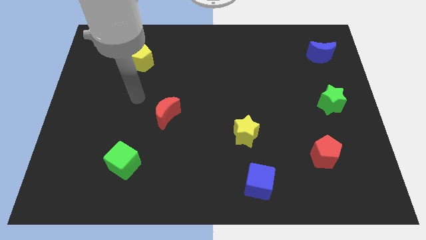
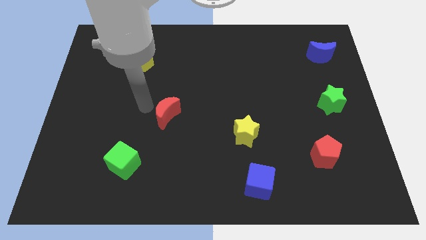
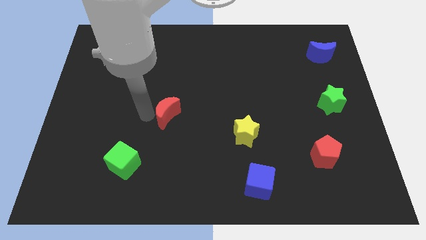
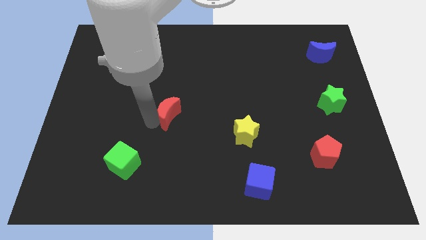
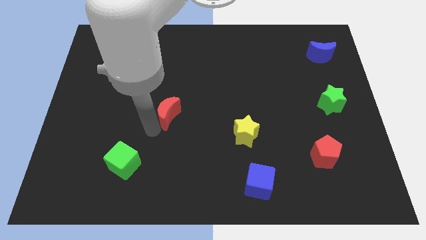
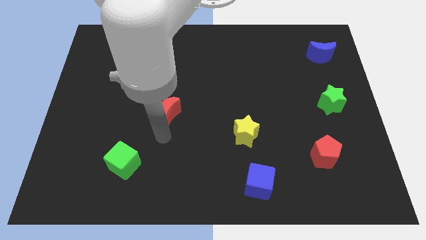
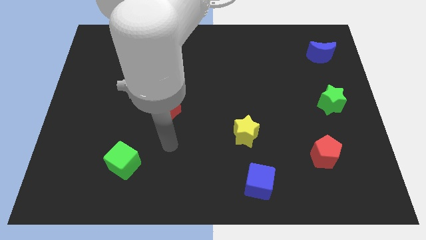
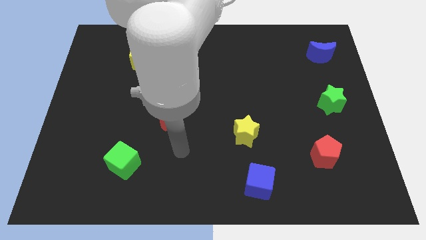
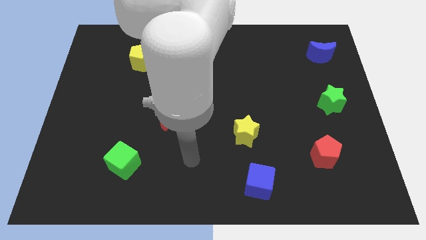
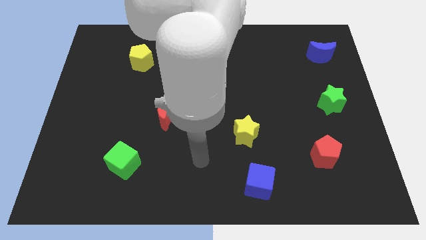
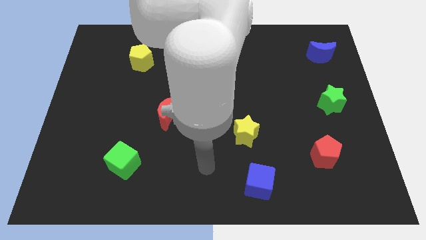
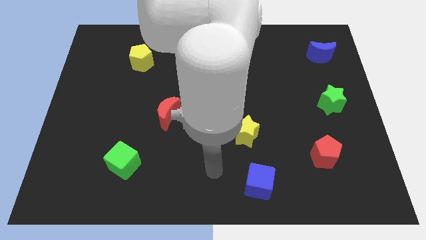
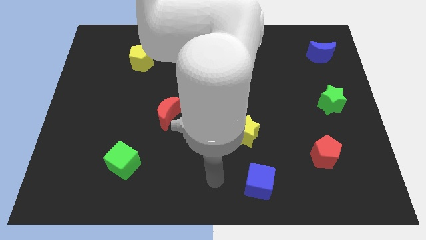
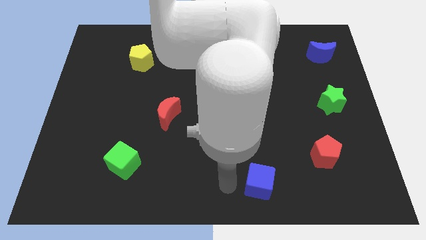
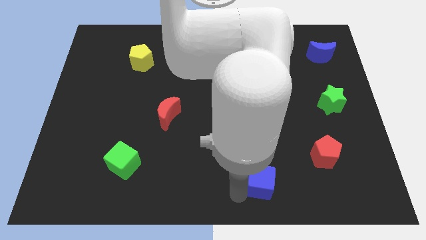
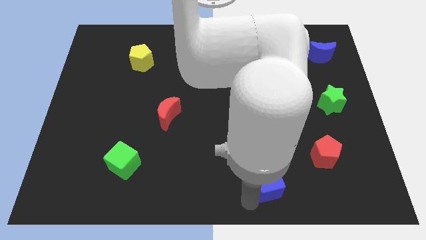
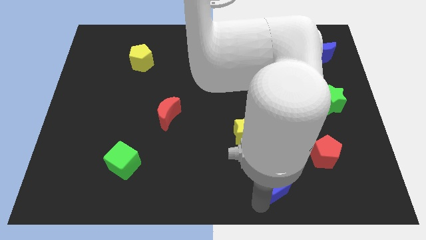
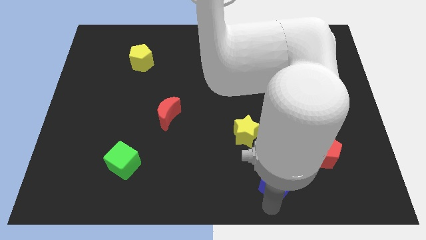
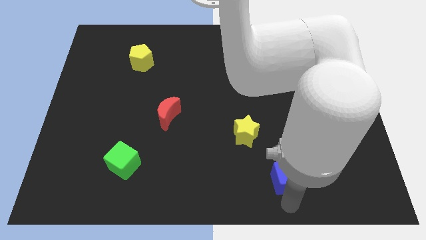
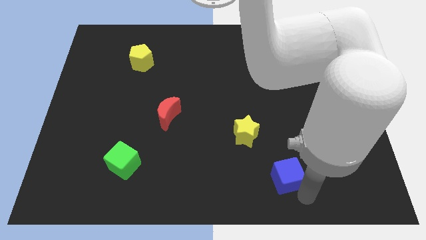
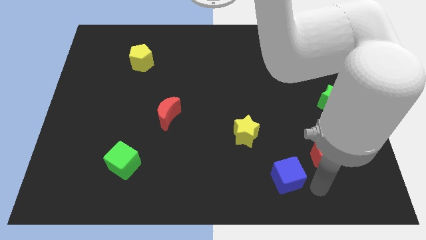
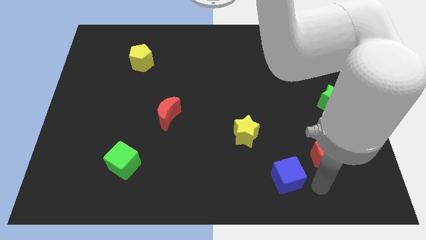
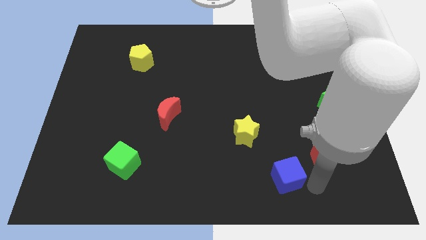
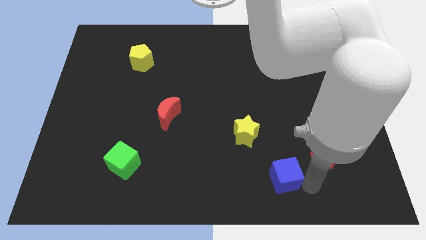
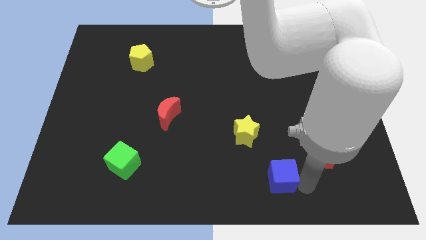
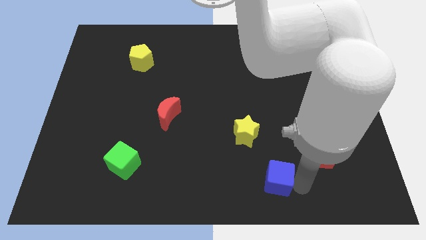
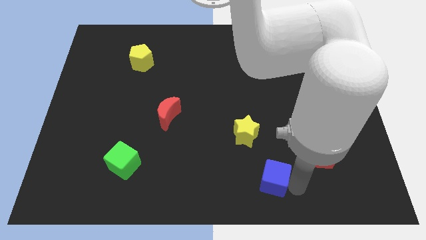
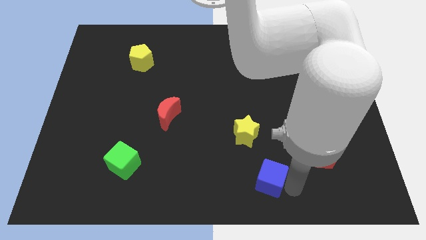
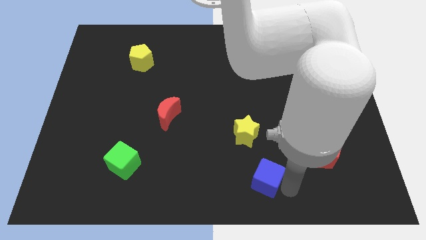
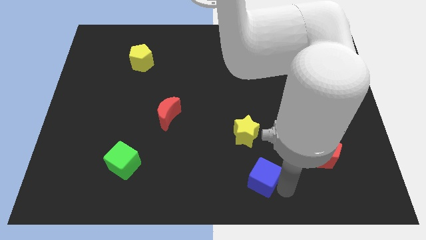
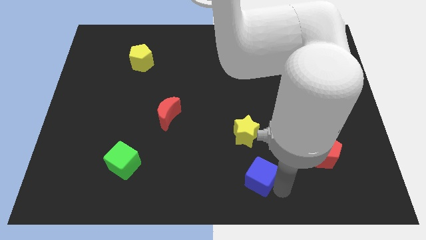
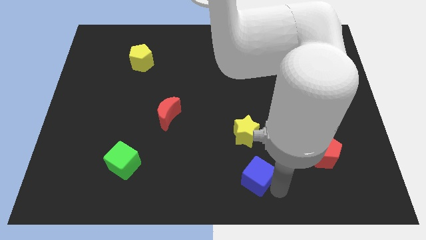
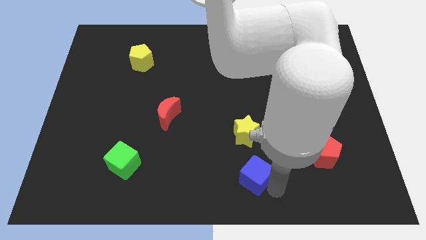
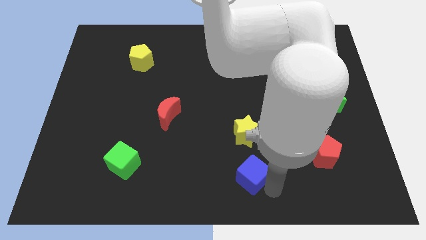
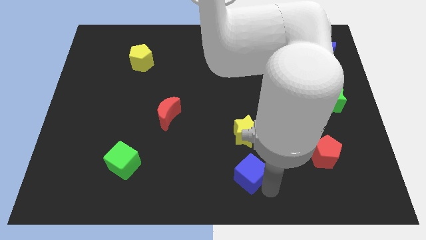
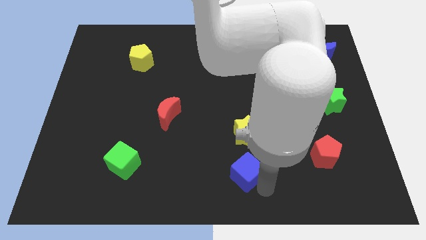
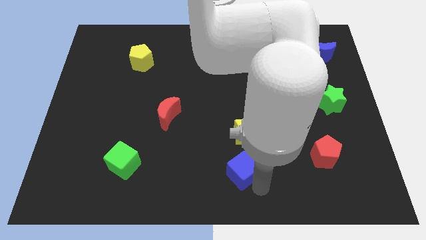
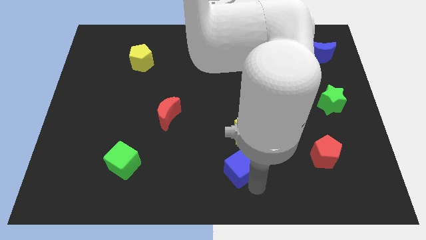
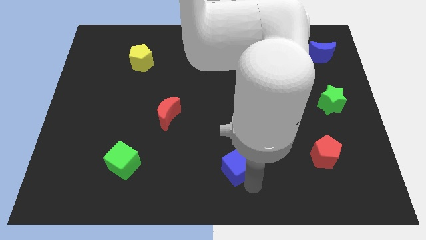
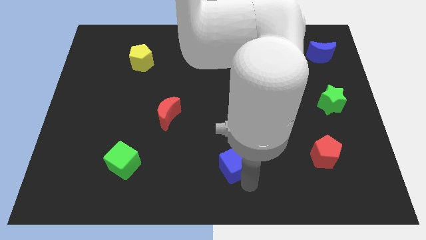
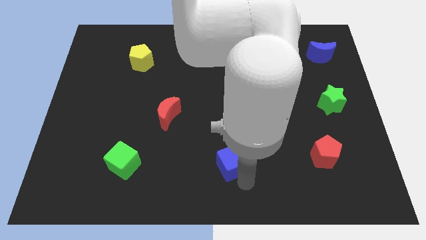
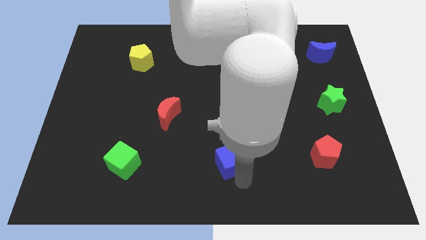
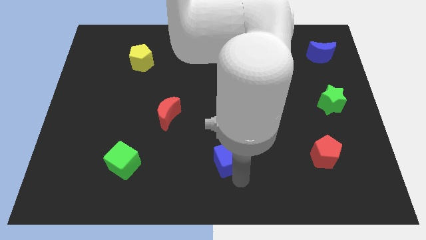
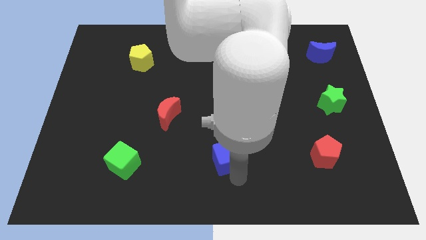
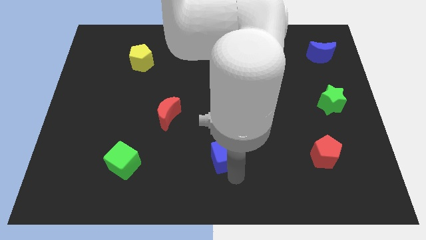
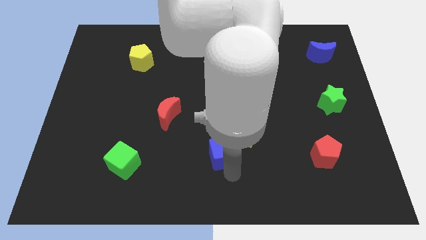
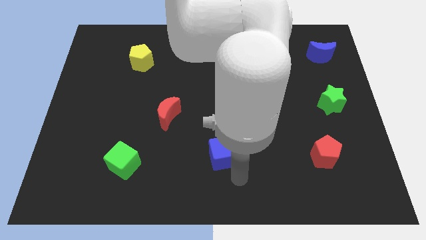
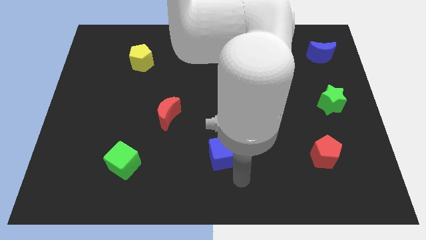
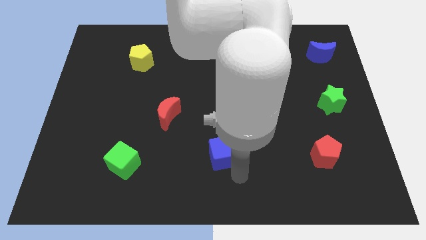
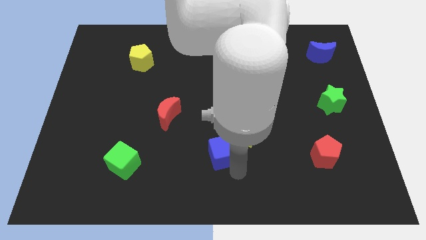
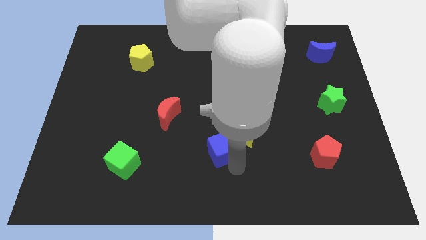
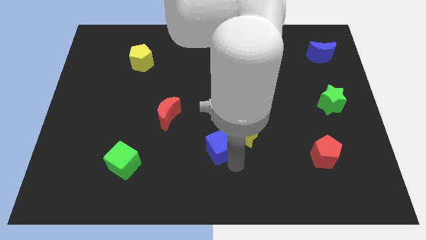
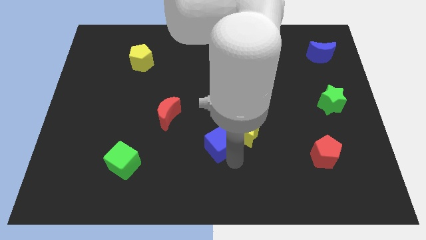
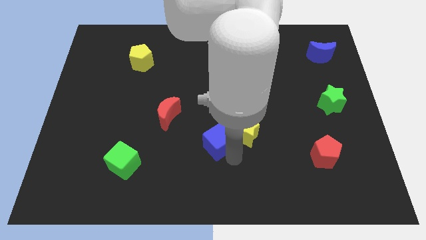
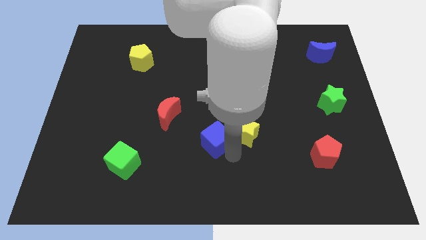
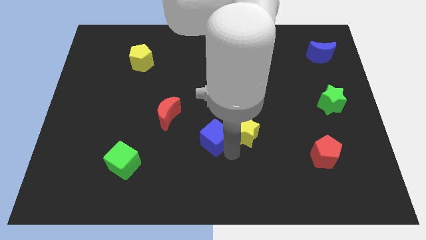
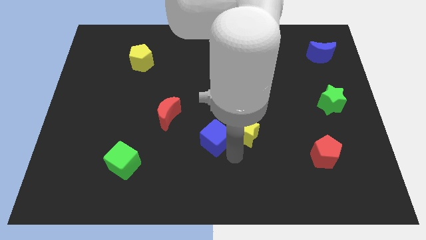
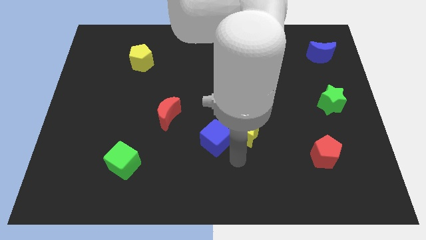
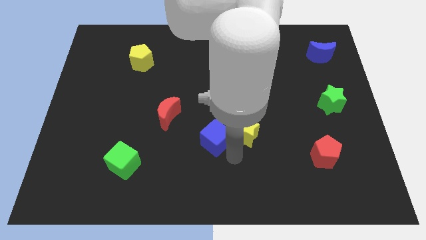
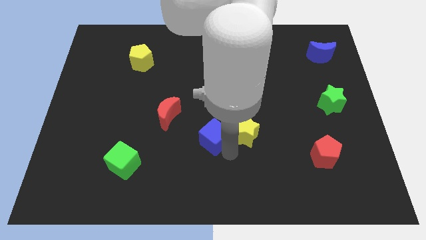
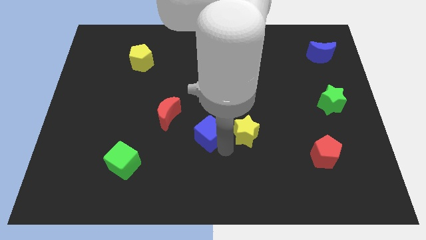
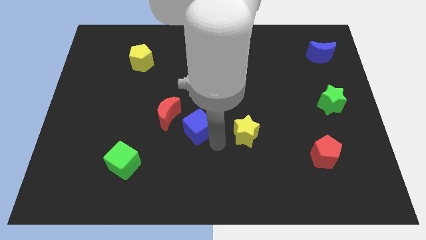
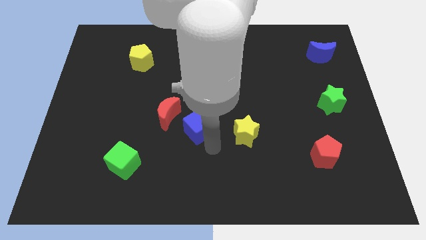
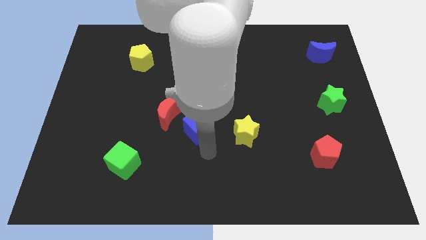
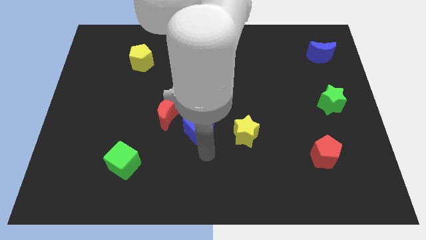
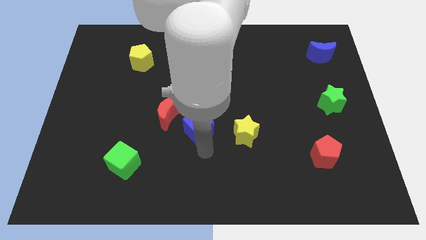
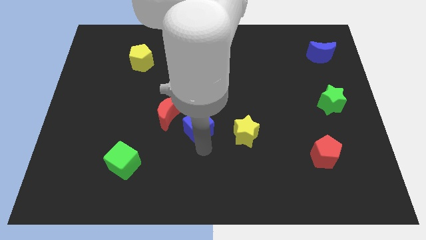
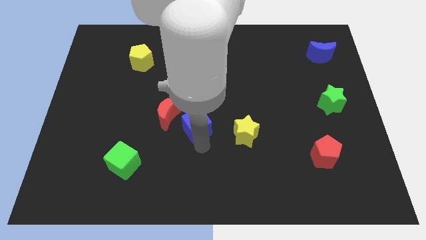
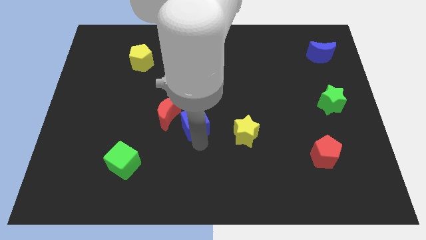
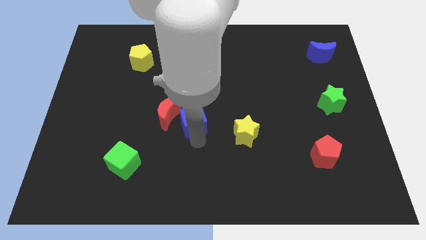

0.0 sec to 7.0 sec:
slide the blue cube upwards and to the left

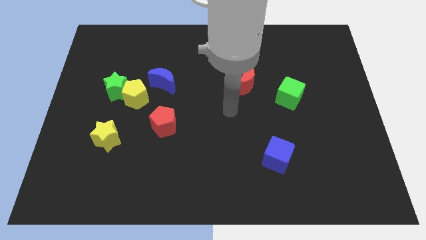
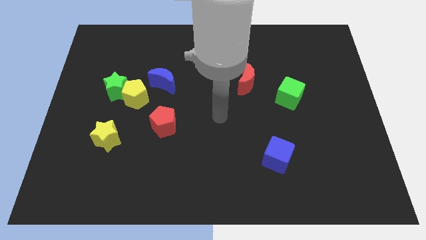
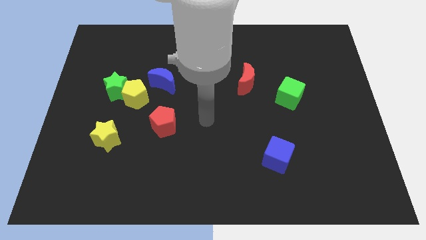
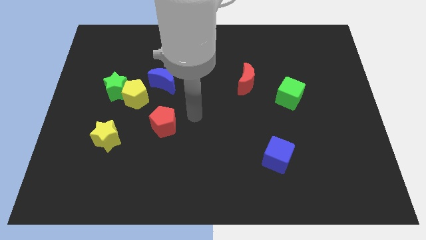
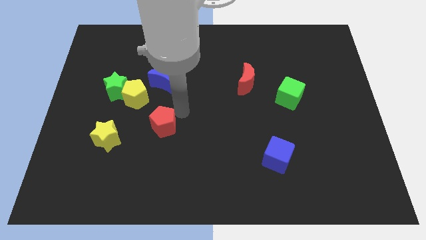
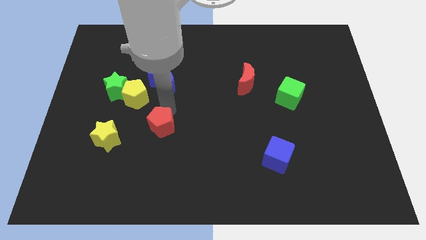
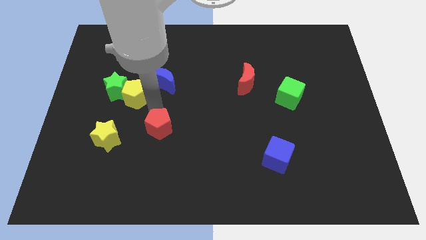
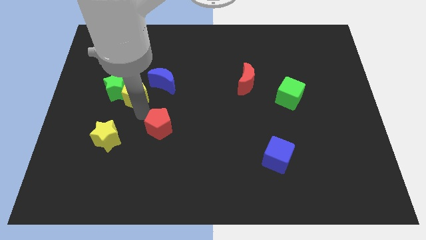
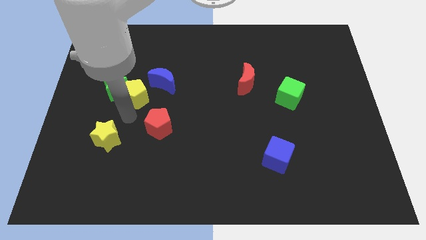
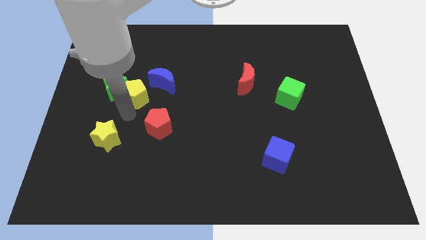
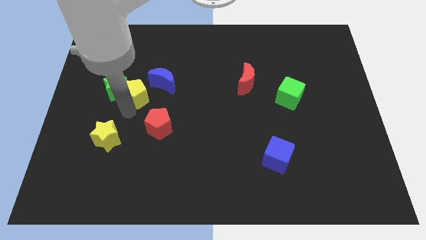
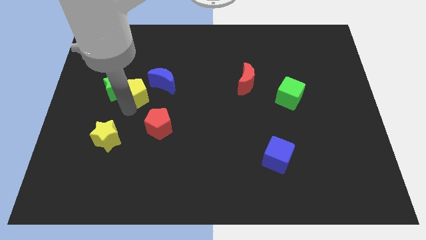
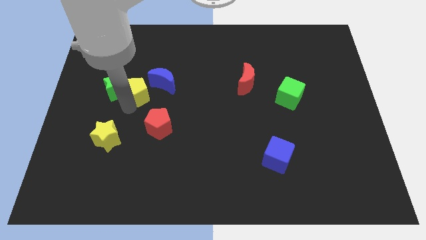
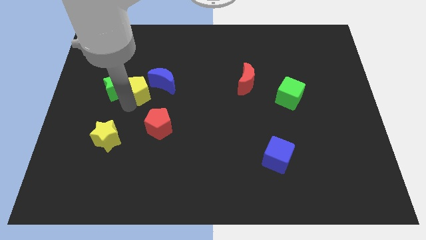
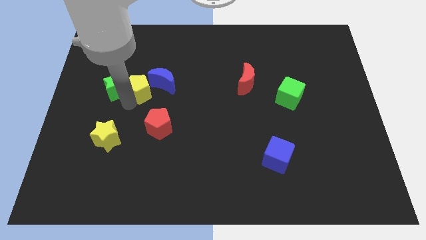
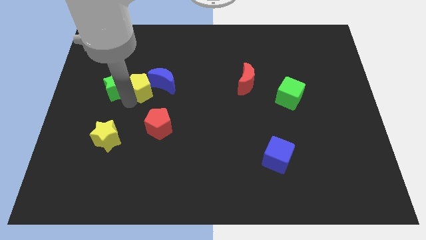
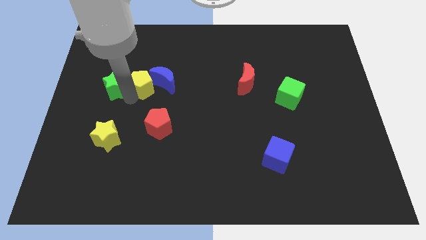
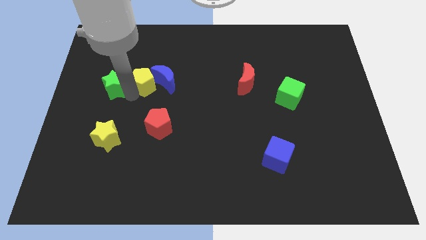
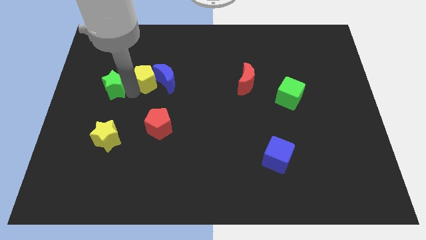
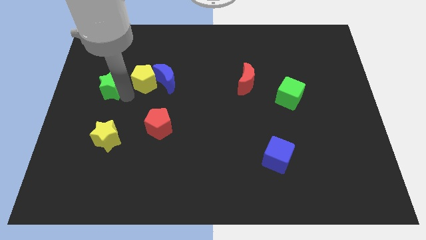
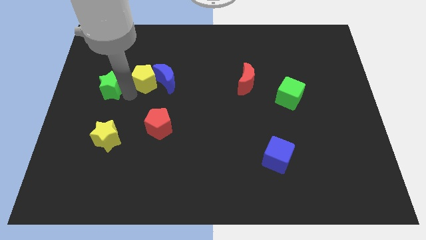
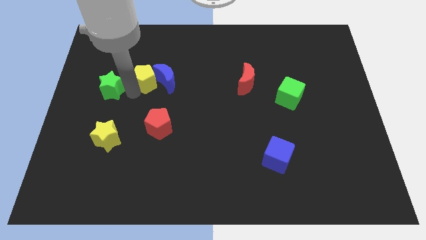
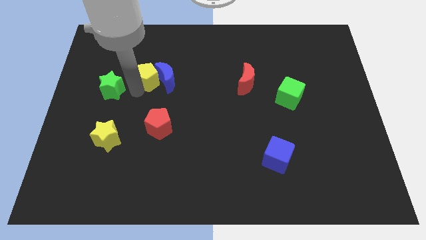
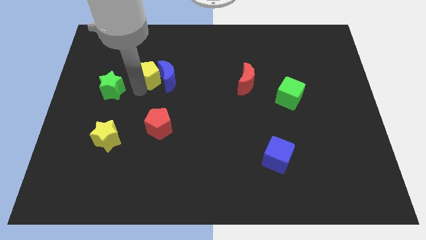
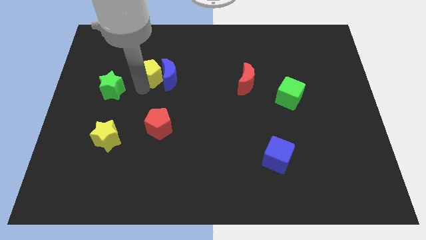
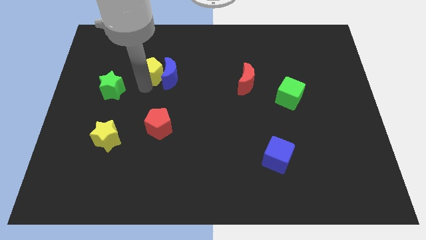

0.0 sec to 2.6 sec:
move the yellow pentagon diagonally upwards and to the right a little bit
